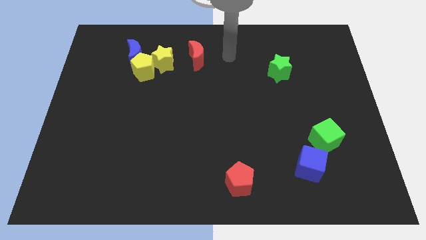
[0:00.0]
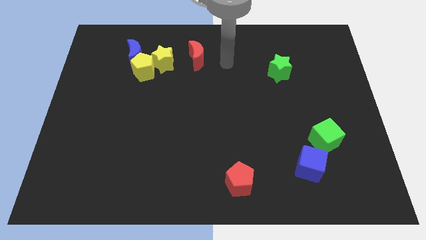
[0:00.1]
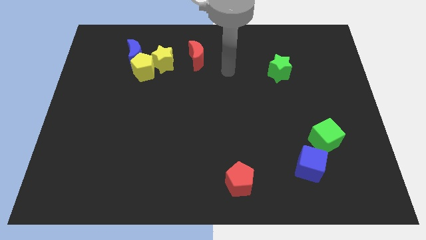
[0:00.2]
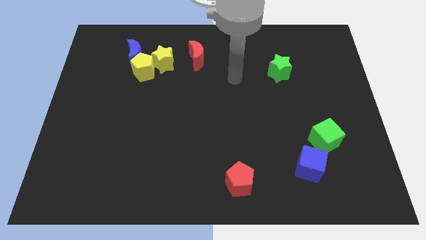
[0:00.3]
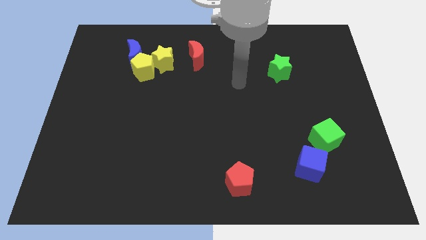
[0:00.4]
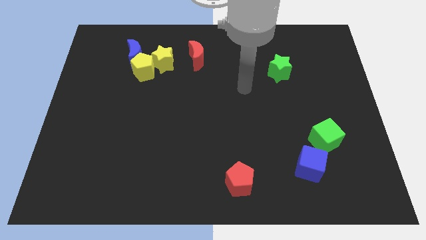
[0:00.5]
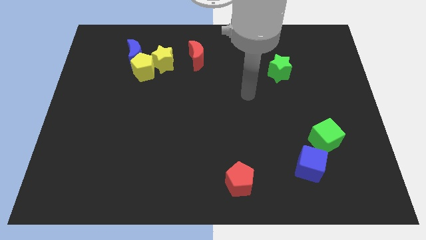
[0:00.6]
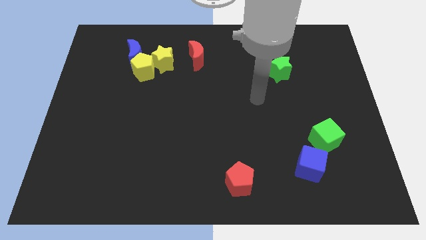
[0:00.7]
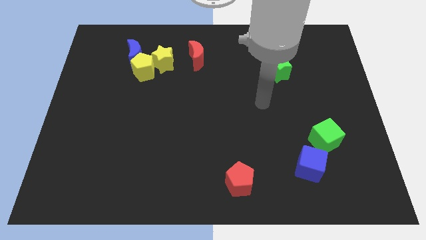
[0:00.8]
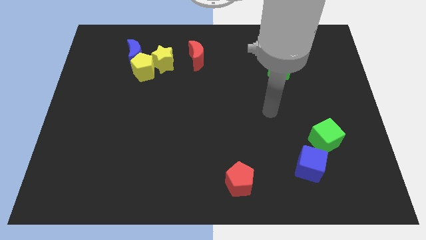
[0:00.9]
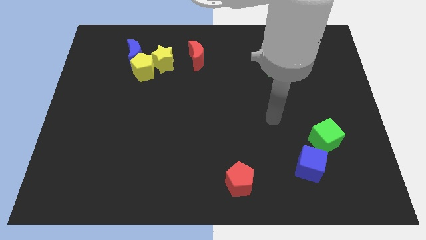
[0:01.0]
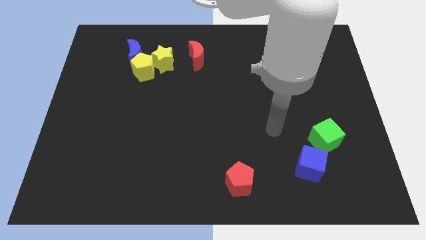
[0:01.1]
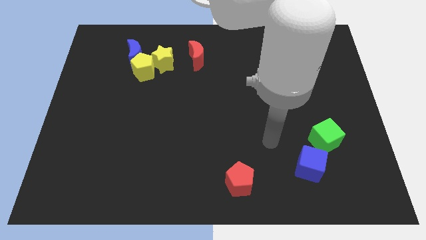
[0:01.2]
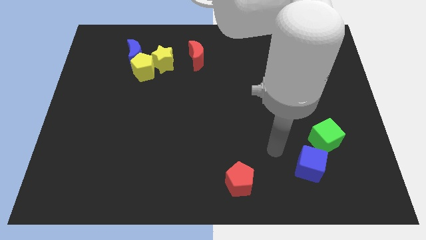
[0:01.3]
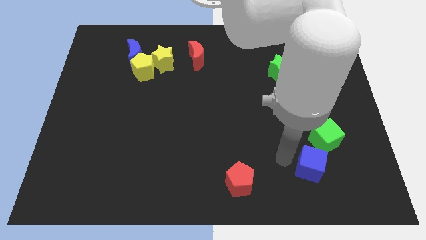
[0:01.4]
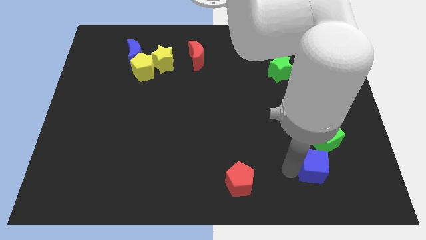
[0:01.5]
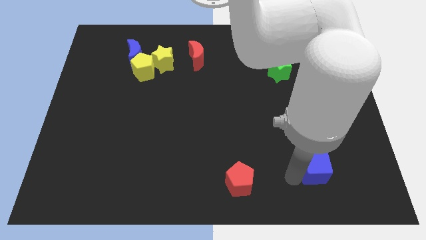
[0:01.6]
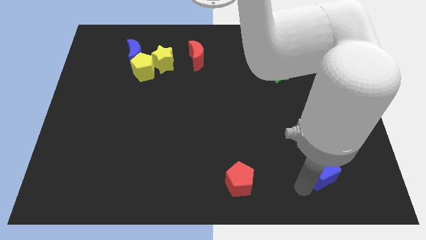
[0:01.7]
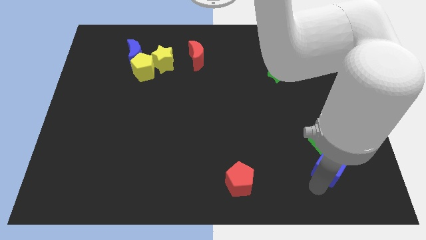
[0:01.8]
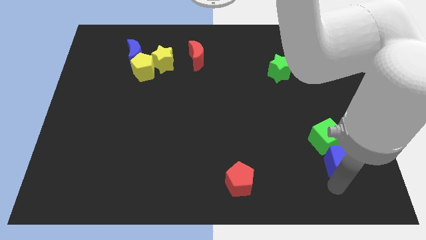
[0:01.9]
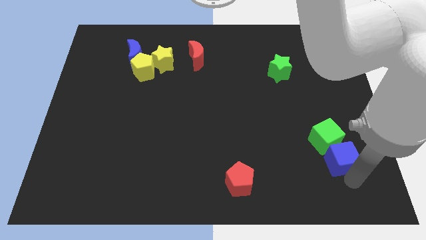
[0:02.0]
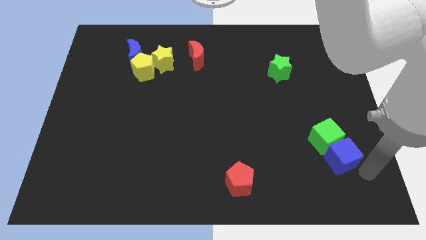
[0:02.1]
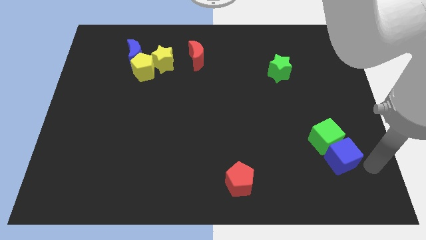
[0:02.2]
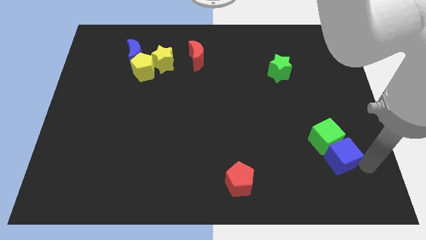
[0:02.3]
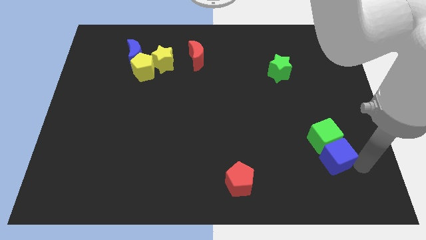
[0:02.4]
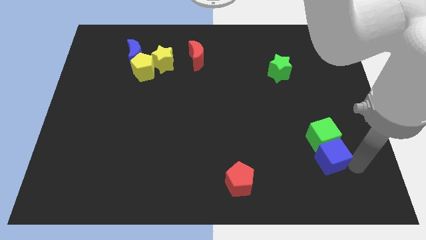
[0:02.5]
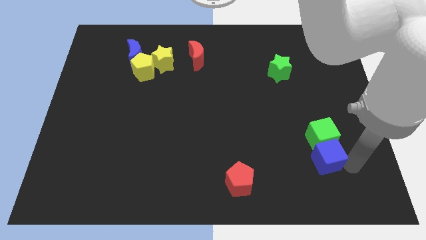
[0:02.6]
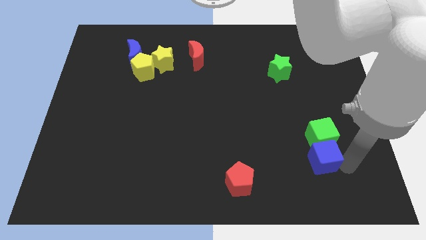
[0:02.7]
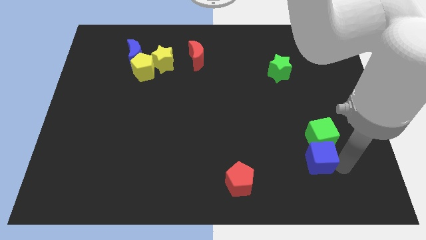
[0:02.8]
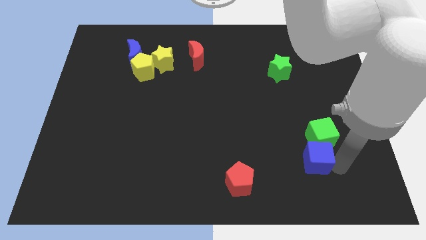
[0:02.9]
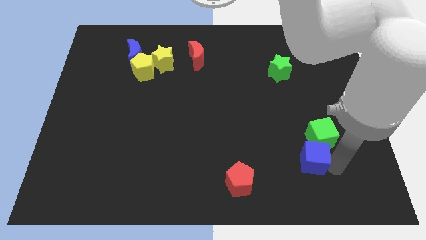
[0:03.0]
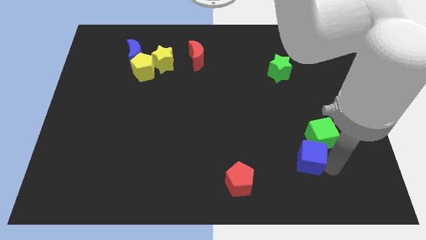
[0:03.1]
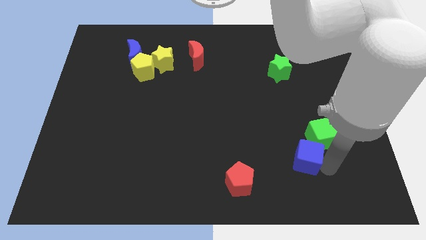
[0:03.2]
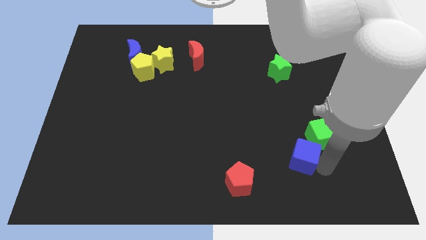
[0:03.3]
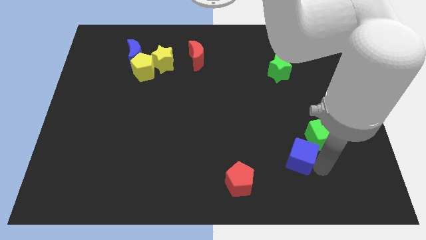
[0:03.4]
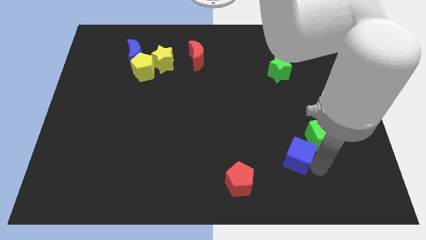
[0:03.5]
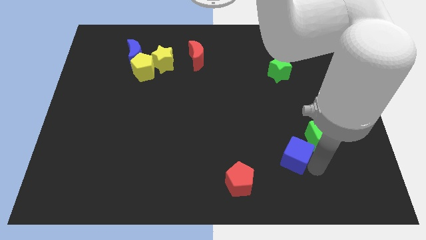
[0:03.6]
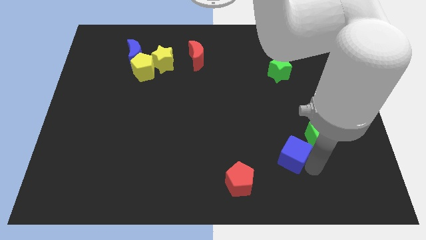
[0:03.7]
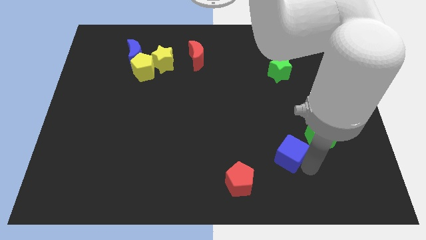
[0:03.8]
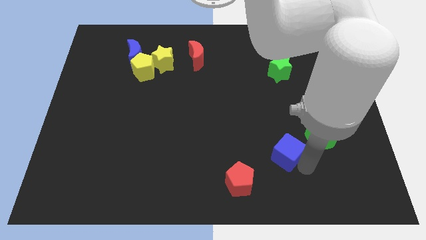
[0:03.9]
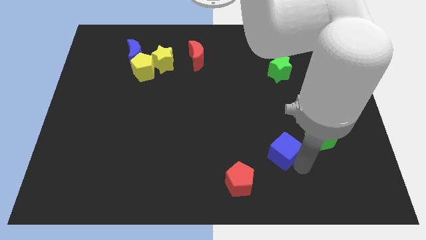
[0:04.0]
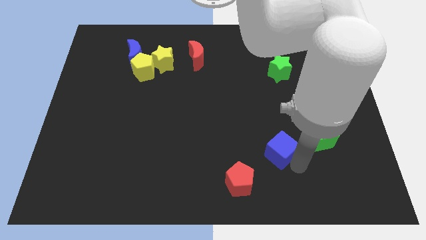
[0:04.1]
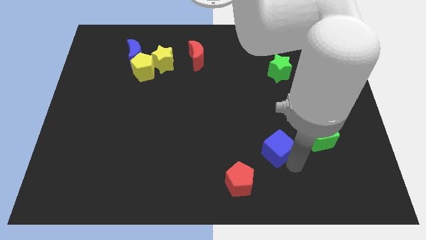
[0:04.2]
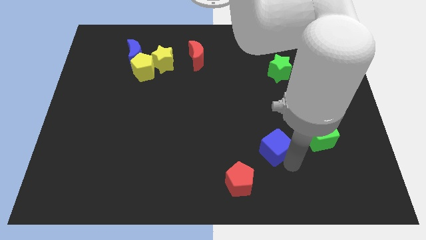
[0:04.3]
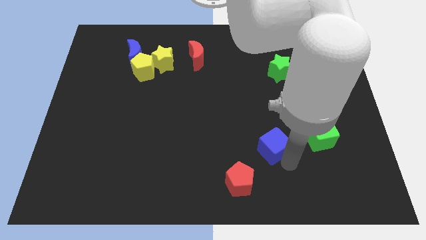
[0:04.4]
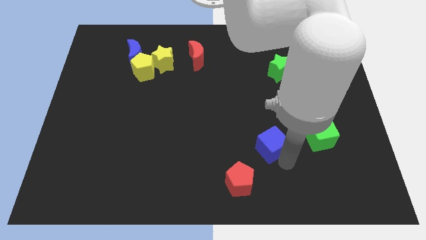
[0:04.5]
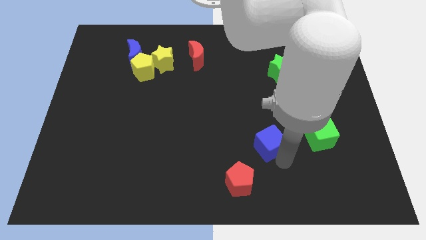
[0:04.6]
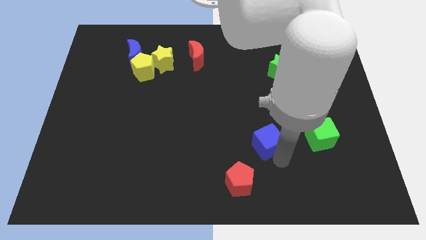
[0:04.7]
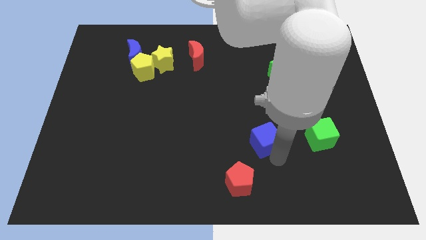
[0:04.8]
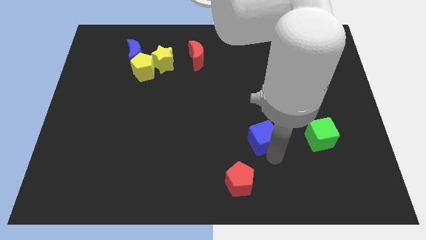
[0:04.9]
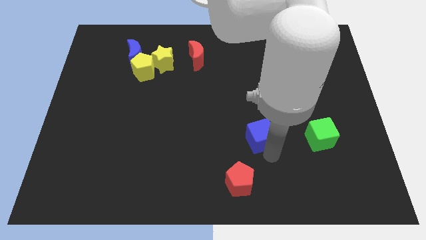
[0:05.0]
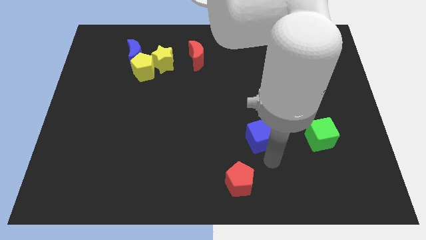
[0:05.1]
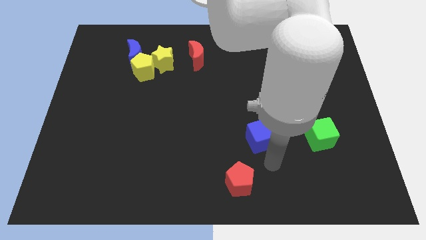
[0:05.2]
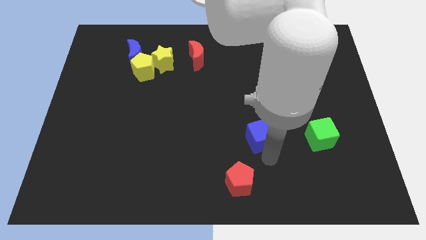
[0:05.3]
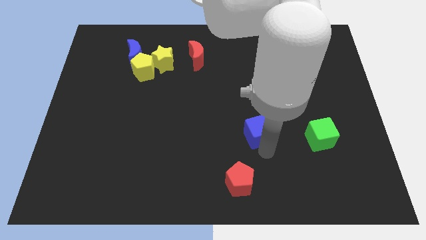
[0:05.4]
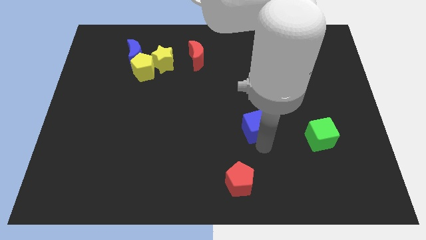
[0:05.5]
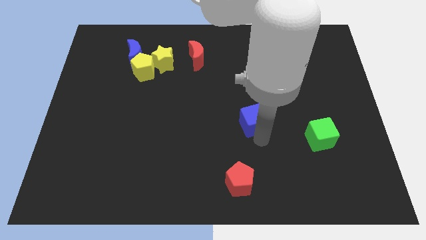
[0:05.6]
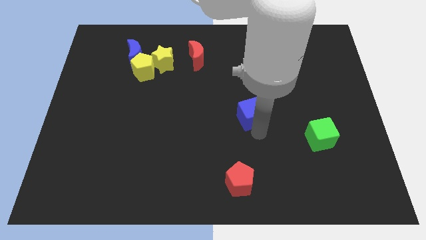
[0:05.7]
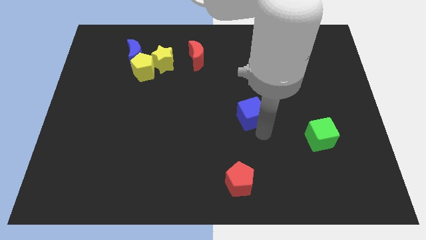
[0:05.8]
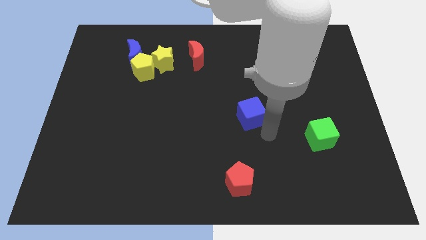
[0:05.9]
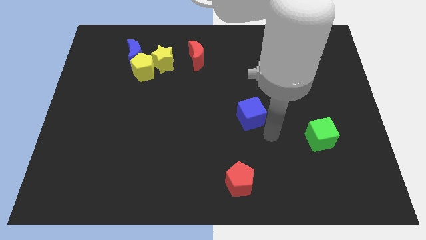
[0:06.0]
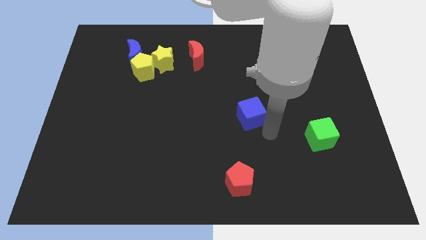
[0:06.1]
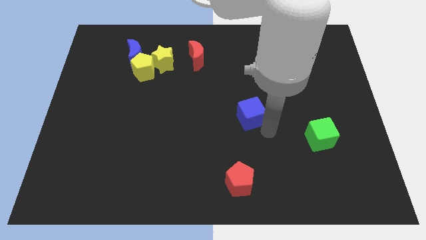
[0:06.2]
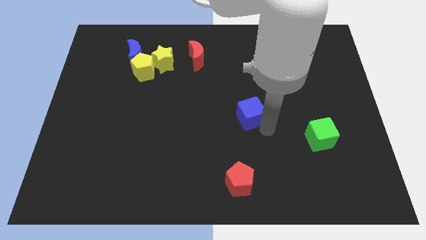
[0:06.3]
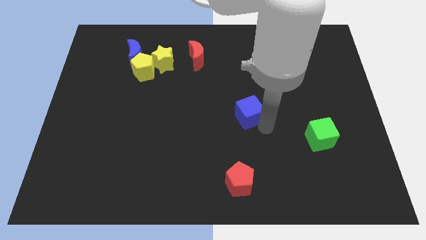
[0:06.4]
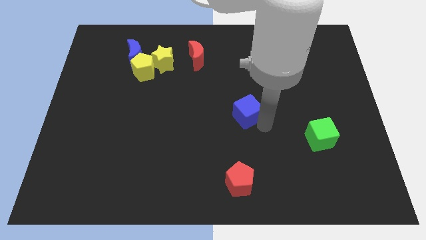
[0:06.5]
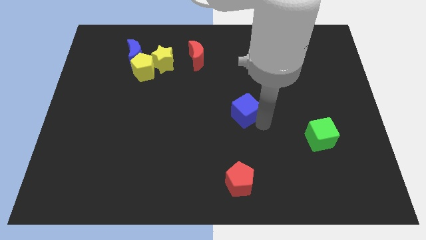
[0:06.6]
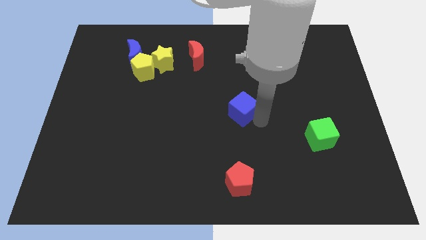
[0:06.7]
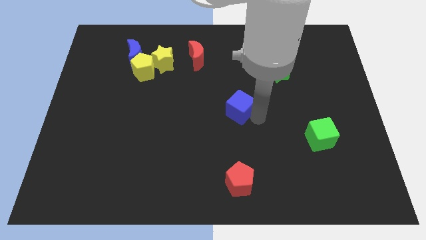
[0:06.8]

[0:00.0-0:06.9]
slide the blue cube upwards and to the left

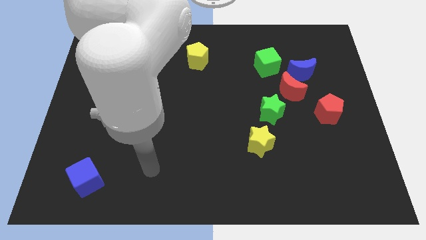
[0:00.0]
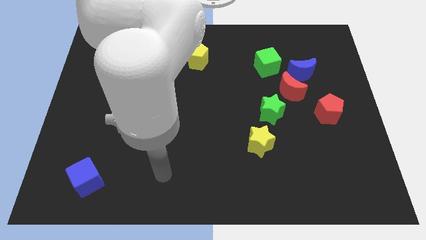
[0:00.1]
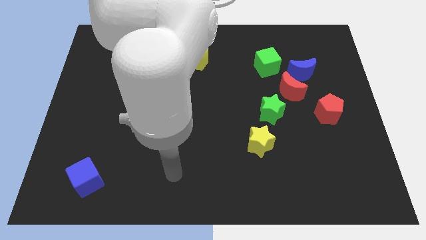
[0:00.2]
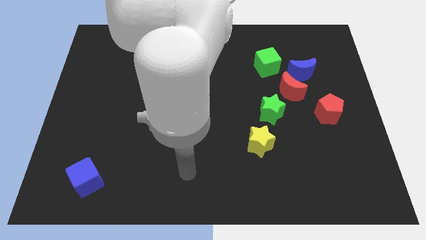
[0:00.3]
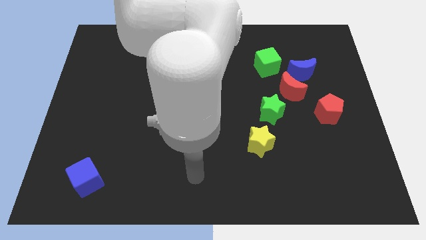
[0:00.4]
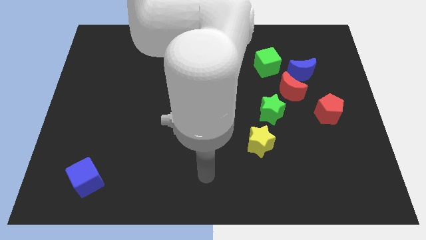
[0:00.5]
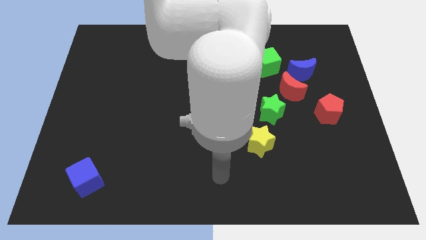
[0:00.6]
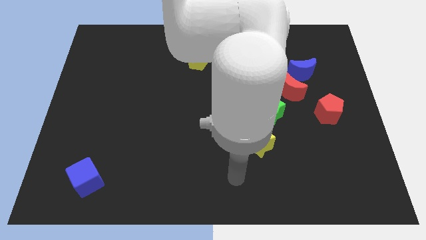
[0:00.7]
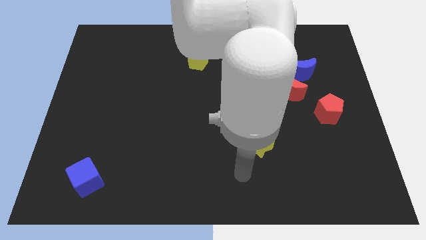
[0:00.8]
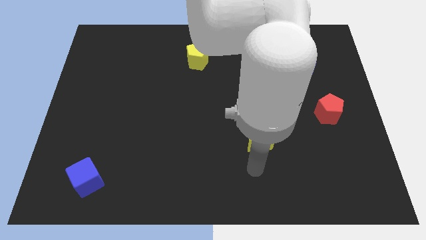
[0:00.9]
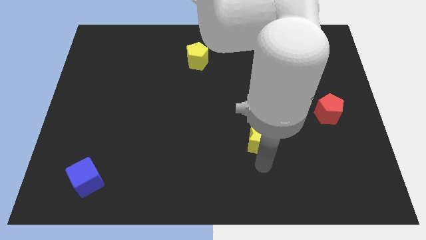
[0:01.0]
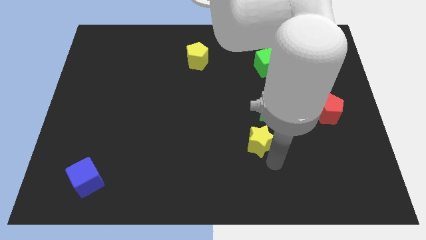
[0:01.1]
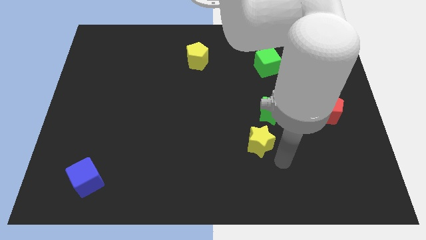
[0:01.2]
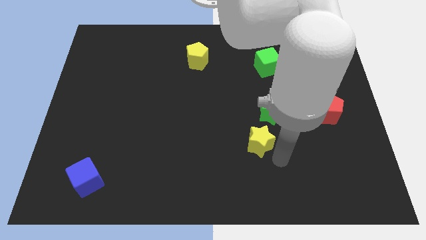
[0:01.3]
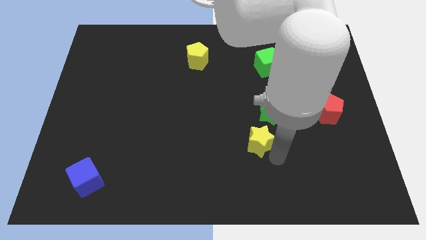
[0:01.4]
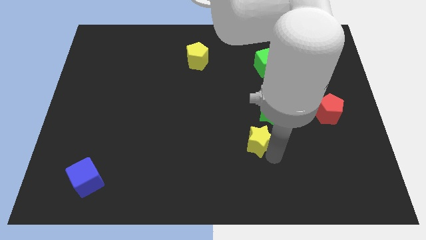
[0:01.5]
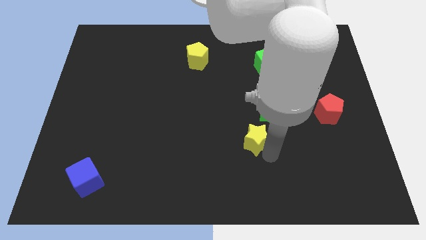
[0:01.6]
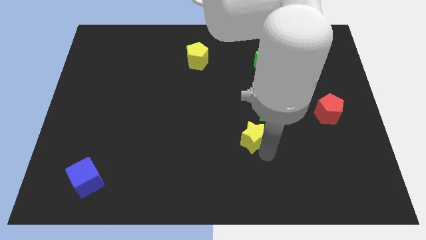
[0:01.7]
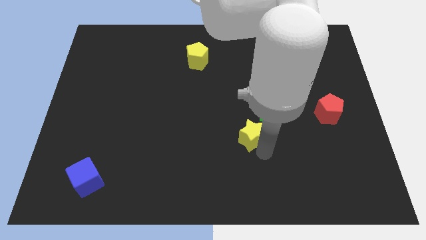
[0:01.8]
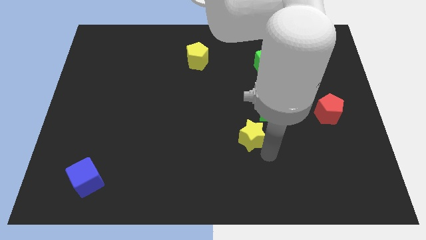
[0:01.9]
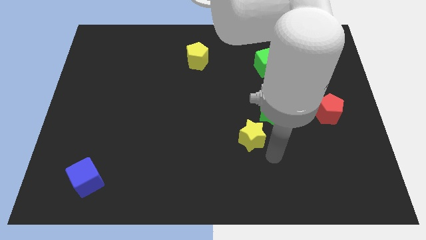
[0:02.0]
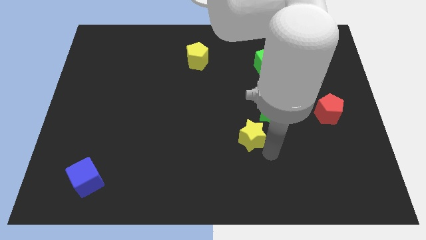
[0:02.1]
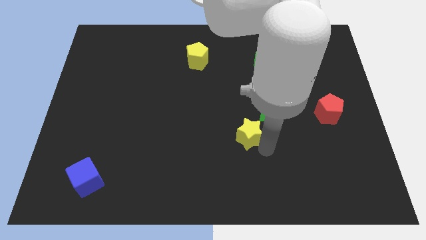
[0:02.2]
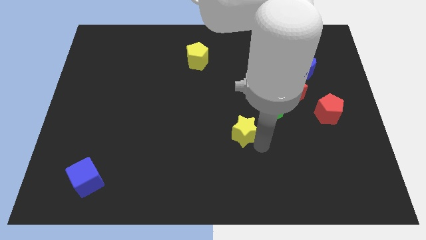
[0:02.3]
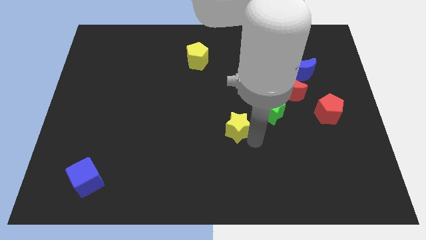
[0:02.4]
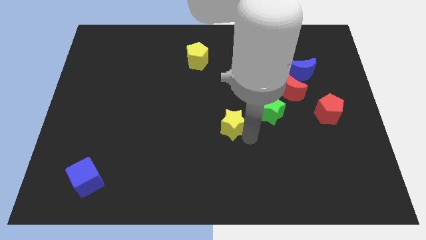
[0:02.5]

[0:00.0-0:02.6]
slightly move the yellow star up and to the left diagonally
